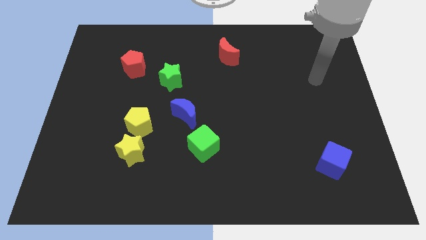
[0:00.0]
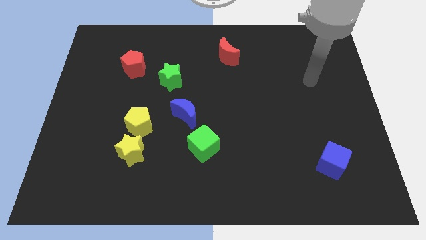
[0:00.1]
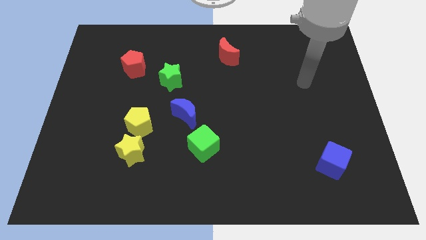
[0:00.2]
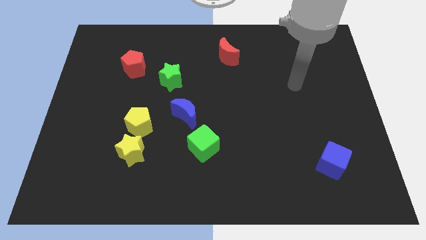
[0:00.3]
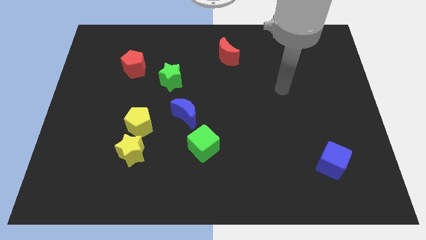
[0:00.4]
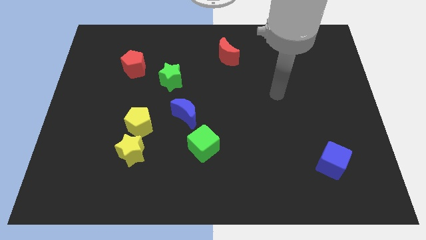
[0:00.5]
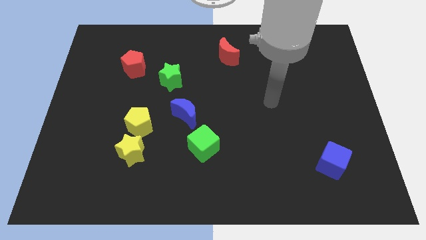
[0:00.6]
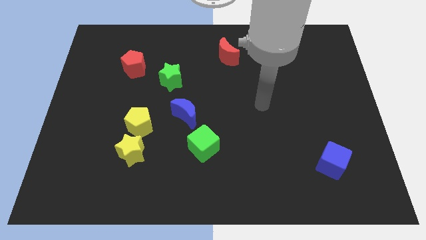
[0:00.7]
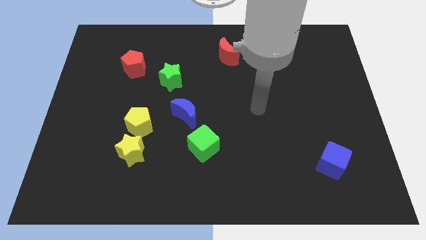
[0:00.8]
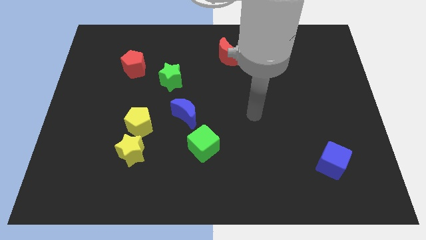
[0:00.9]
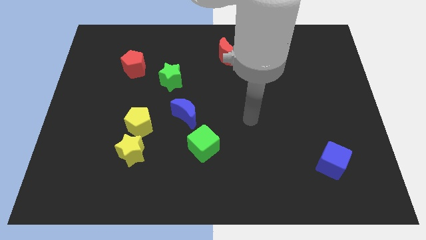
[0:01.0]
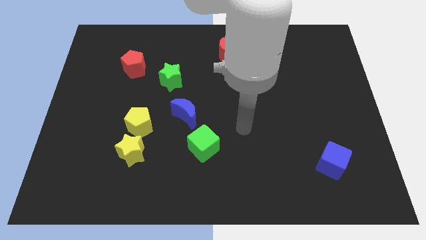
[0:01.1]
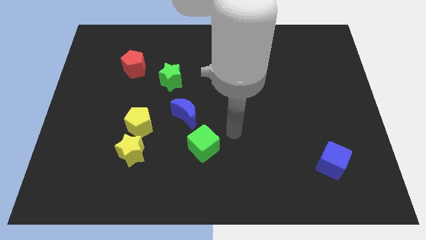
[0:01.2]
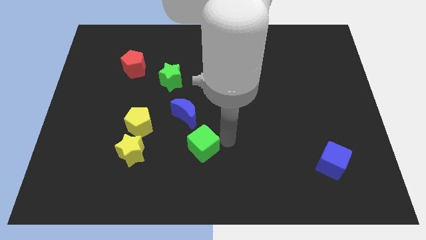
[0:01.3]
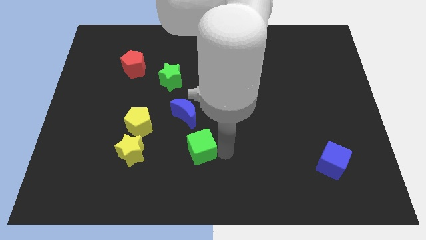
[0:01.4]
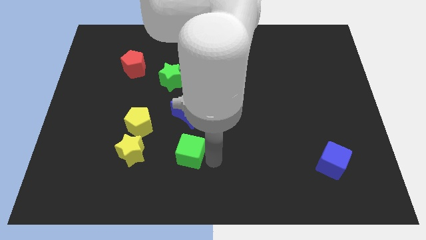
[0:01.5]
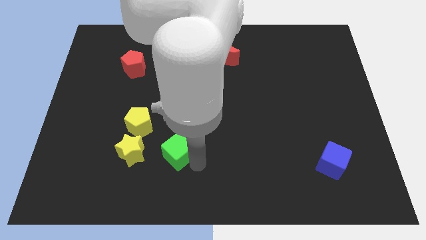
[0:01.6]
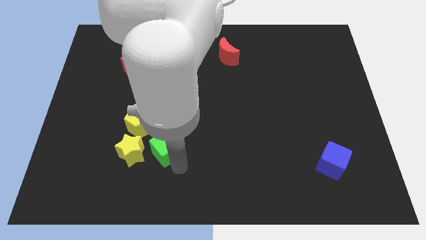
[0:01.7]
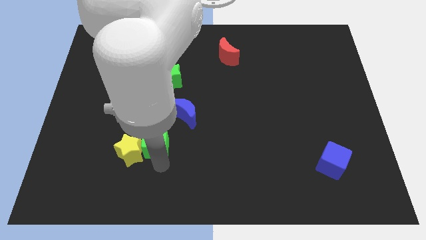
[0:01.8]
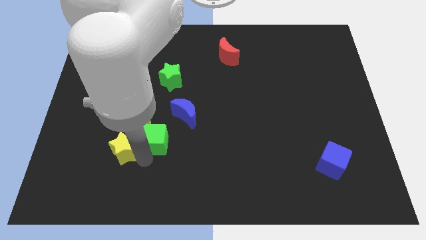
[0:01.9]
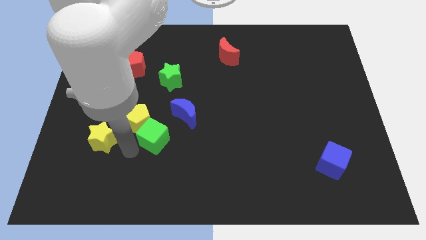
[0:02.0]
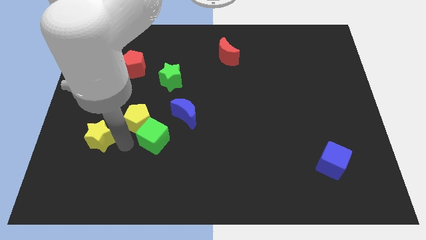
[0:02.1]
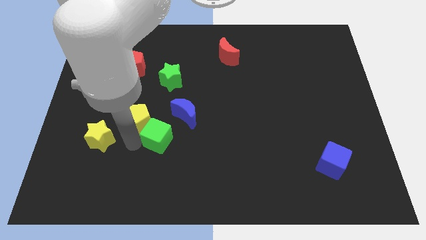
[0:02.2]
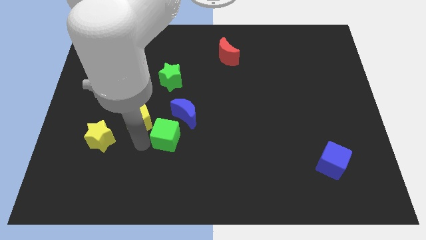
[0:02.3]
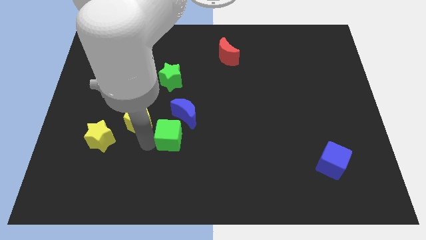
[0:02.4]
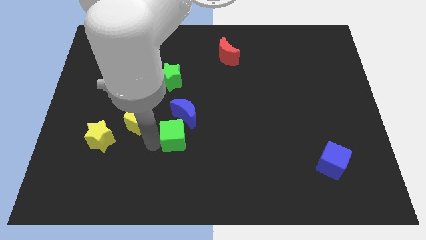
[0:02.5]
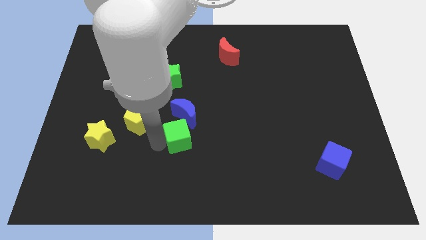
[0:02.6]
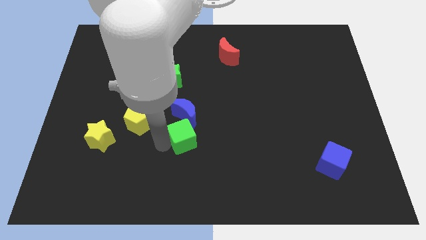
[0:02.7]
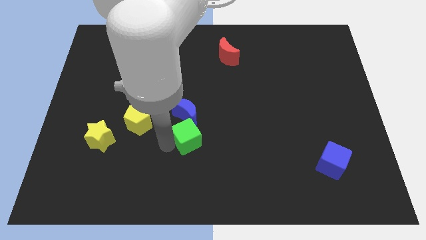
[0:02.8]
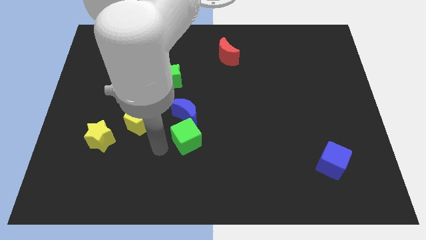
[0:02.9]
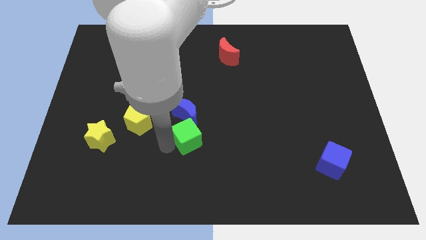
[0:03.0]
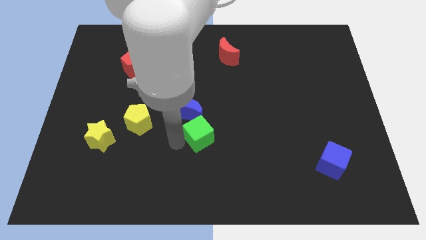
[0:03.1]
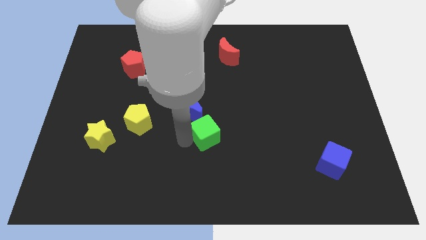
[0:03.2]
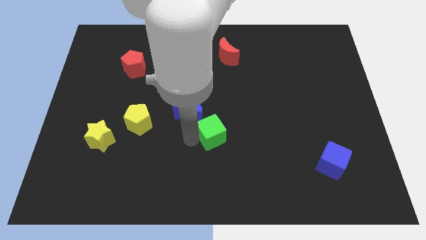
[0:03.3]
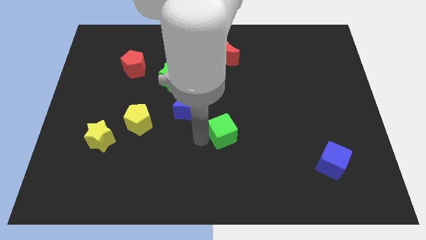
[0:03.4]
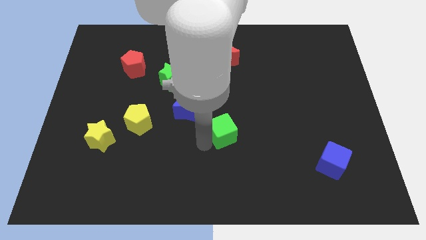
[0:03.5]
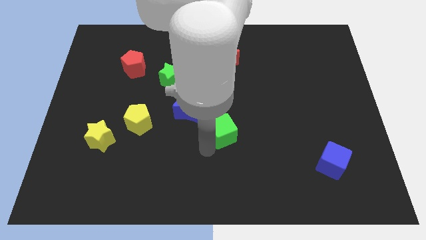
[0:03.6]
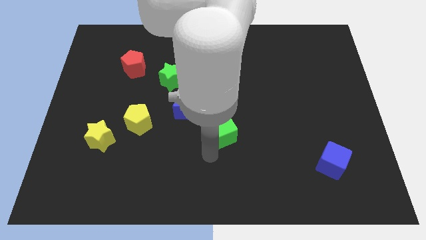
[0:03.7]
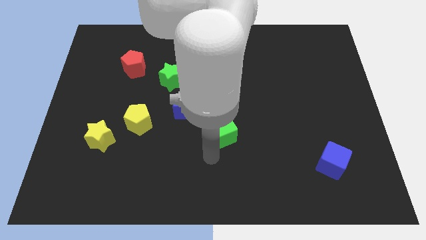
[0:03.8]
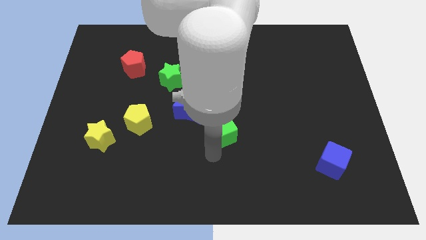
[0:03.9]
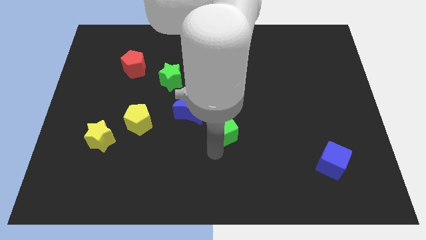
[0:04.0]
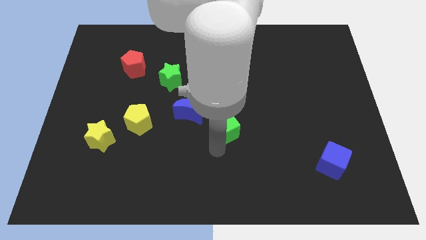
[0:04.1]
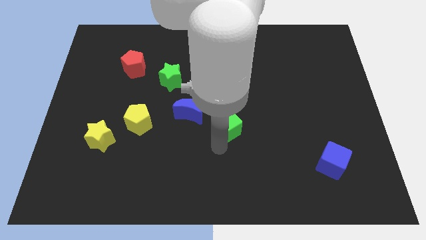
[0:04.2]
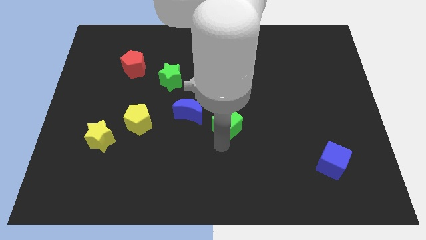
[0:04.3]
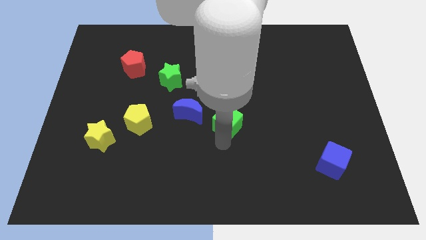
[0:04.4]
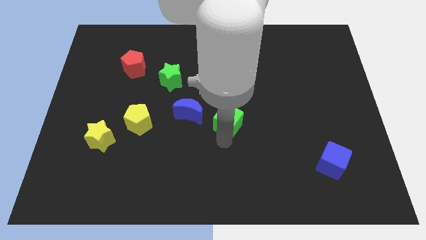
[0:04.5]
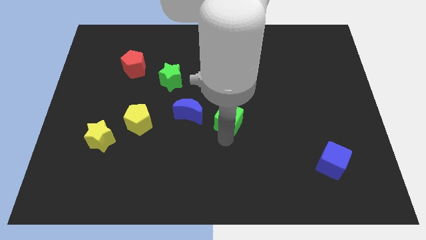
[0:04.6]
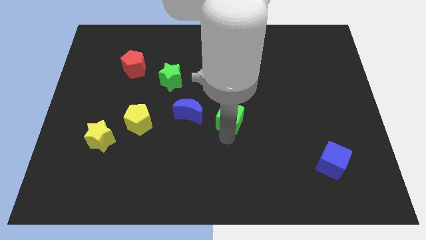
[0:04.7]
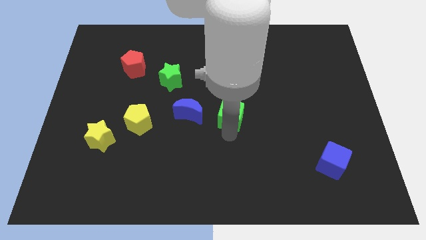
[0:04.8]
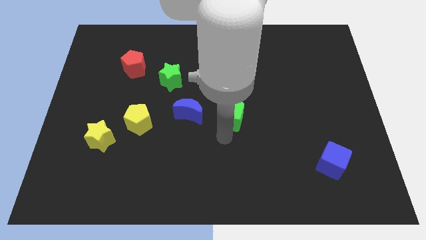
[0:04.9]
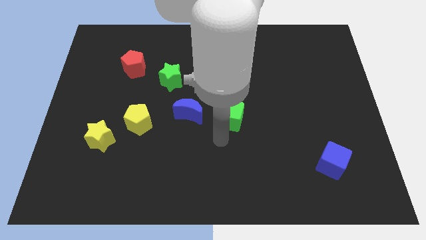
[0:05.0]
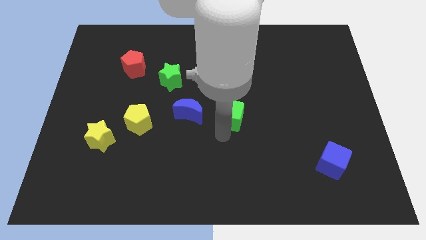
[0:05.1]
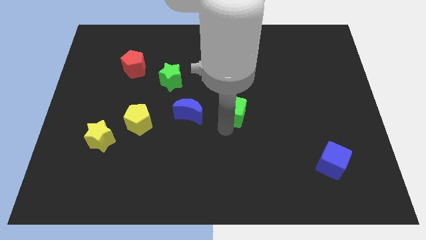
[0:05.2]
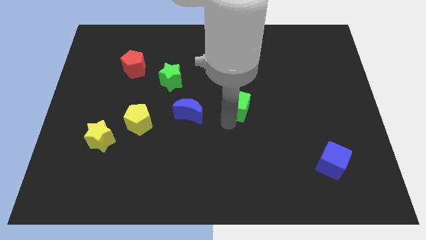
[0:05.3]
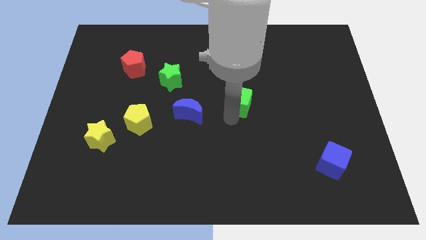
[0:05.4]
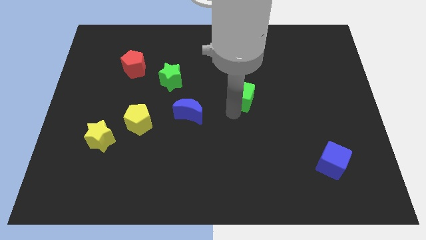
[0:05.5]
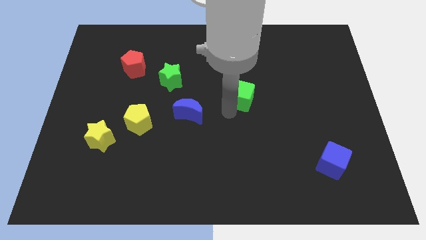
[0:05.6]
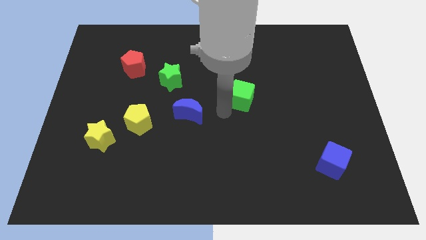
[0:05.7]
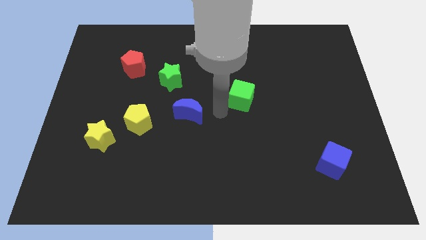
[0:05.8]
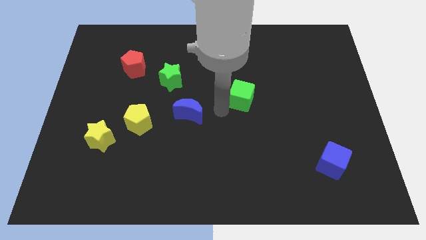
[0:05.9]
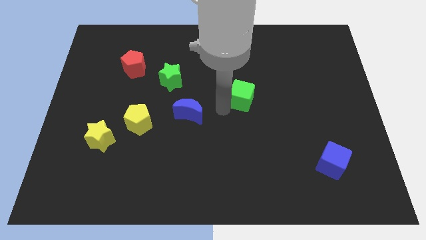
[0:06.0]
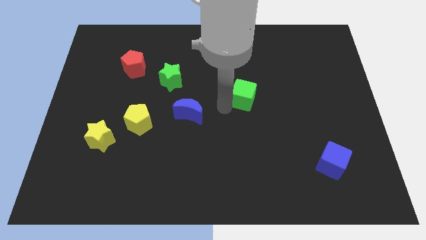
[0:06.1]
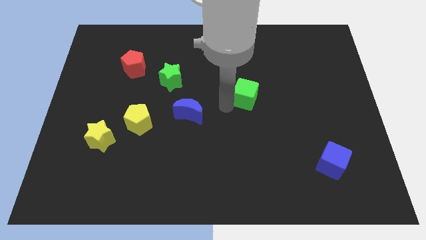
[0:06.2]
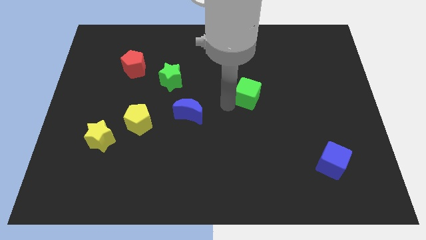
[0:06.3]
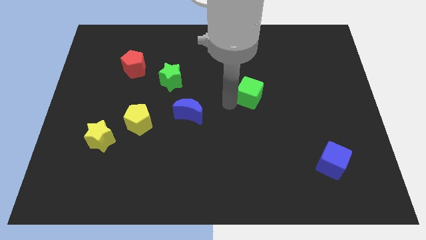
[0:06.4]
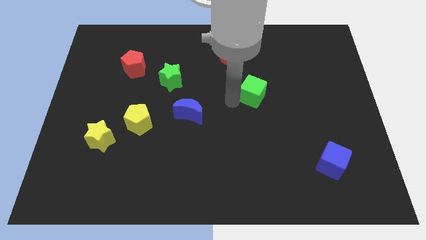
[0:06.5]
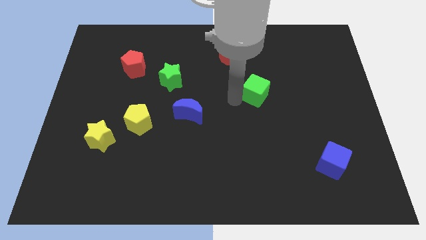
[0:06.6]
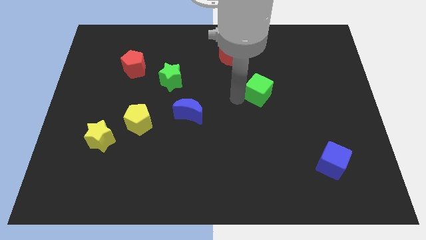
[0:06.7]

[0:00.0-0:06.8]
move the green cube diagonally upwards and to the right

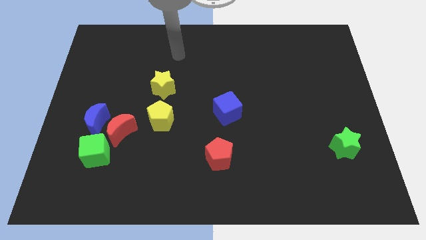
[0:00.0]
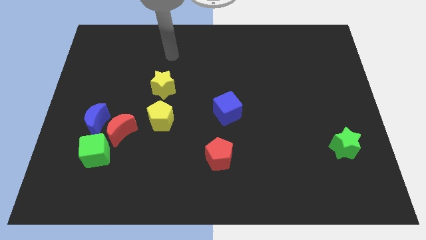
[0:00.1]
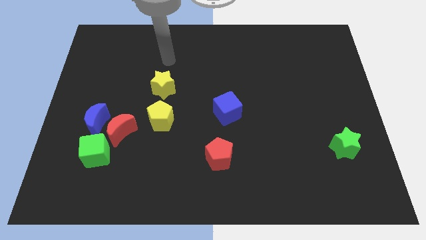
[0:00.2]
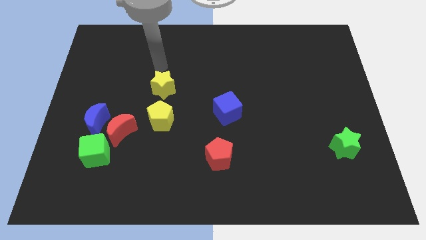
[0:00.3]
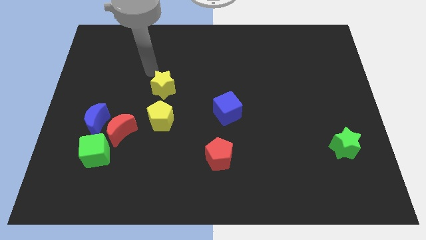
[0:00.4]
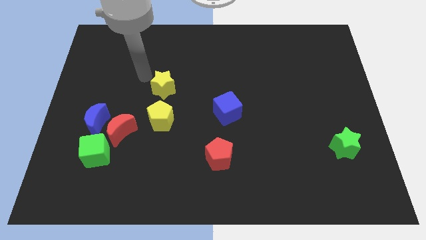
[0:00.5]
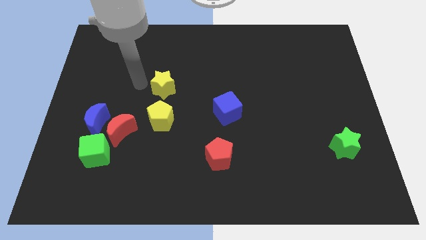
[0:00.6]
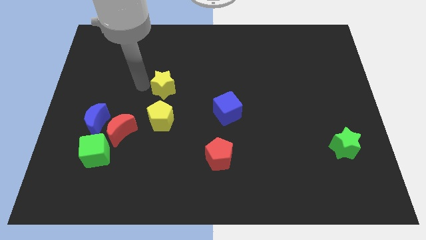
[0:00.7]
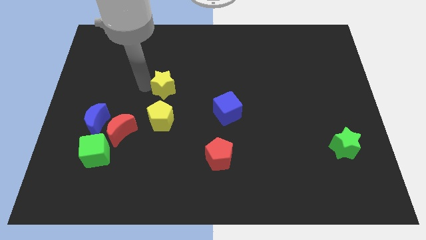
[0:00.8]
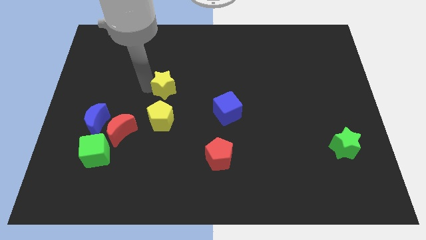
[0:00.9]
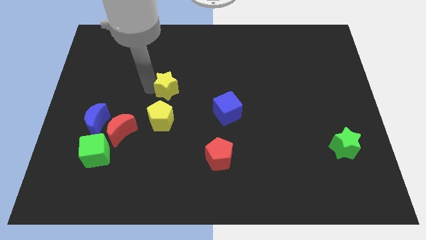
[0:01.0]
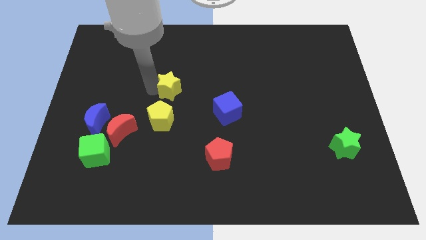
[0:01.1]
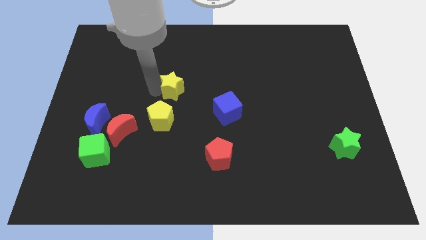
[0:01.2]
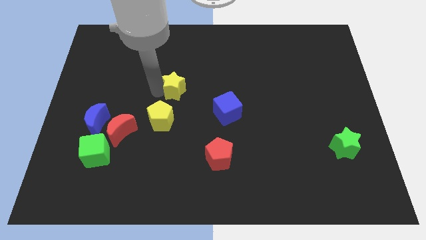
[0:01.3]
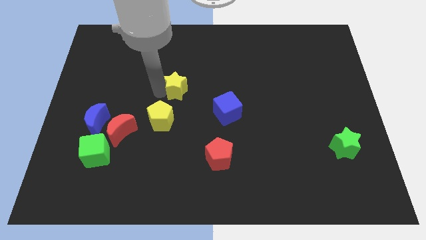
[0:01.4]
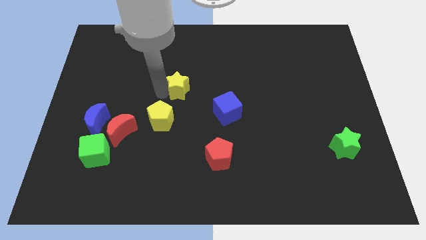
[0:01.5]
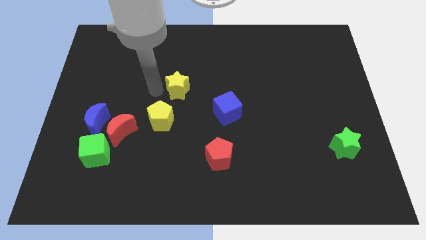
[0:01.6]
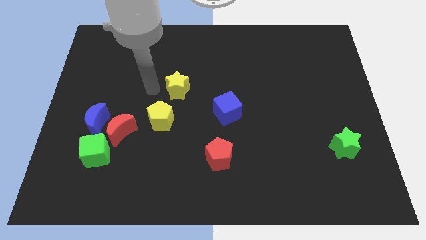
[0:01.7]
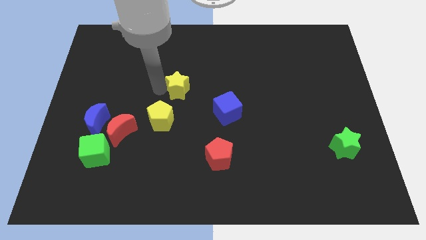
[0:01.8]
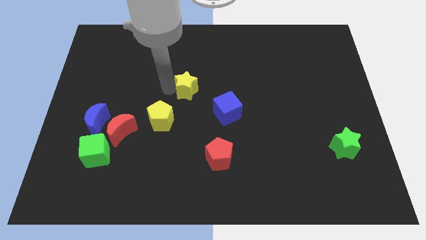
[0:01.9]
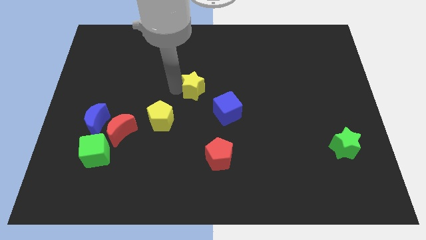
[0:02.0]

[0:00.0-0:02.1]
push the yellow star right a bit
